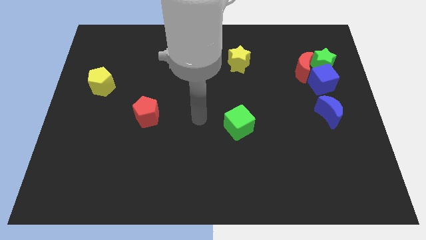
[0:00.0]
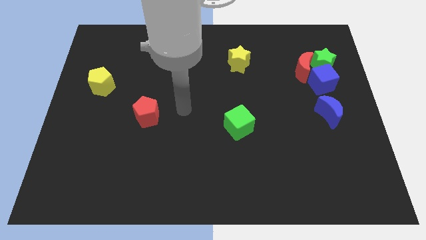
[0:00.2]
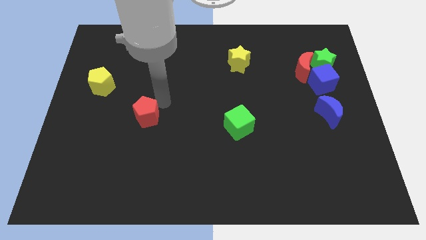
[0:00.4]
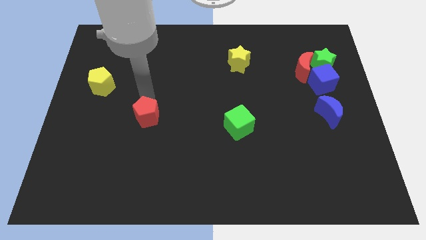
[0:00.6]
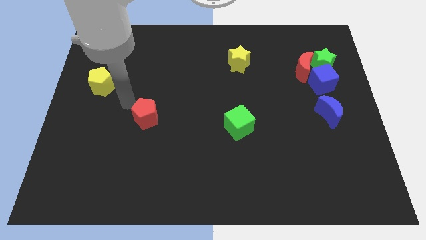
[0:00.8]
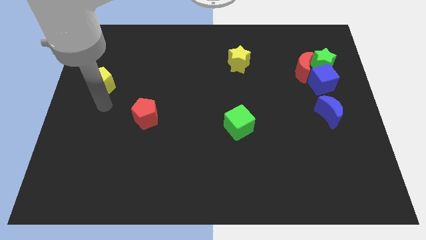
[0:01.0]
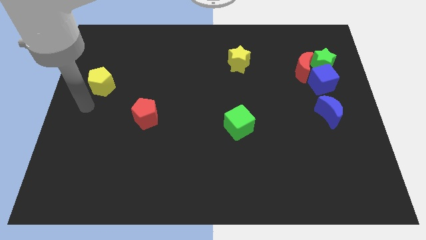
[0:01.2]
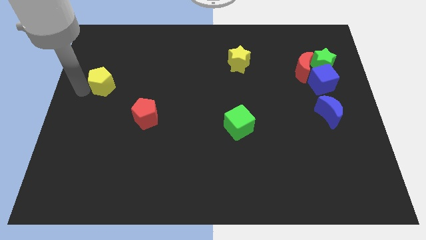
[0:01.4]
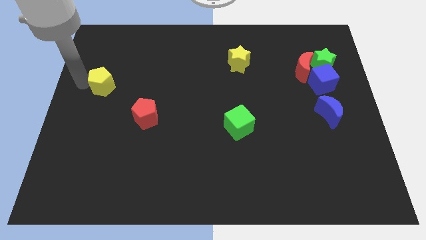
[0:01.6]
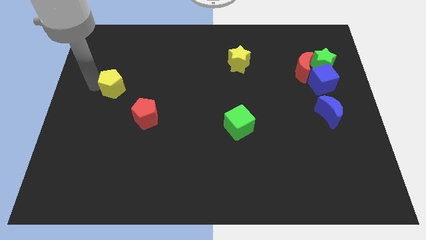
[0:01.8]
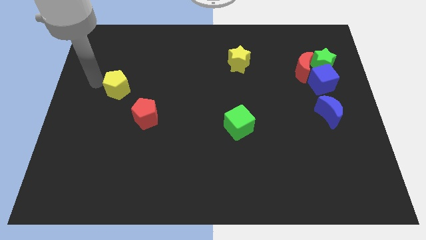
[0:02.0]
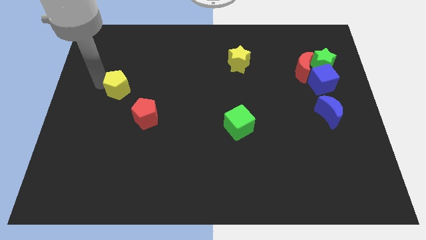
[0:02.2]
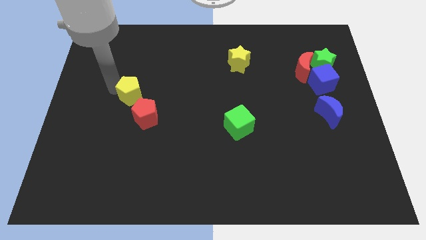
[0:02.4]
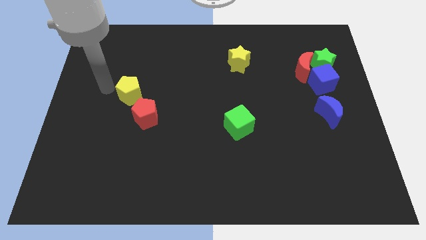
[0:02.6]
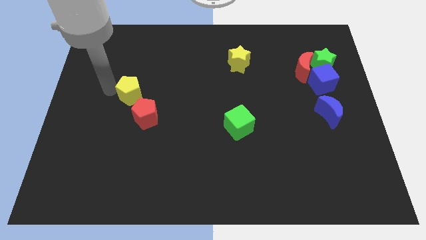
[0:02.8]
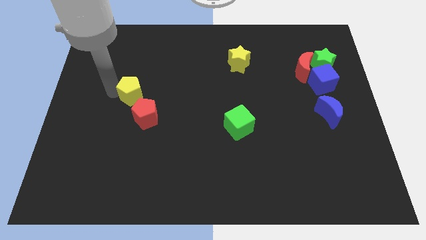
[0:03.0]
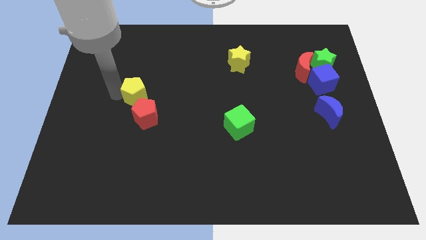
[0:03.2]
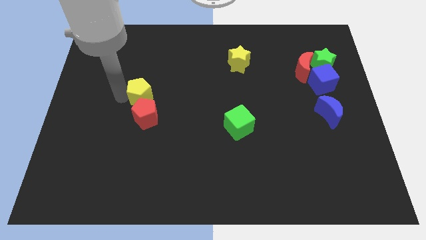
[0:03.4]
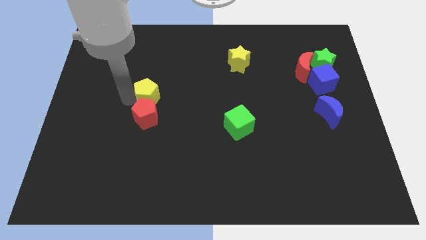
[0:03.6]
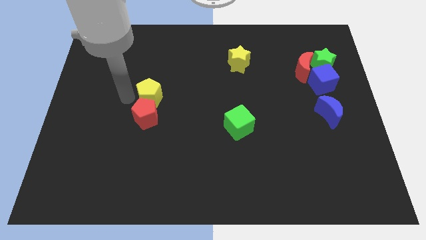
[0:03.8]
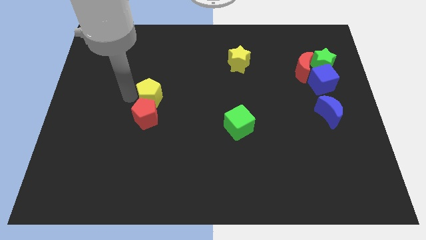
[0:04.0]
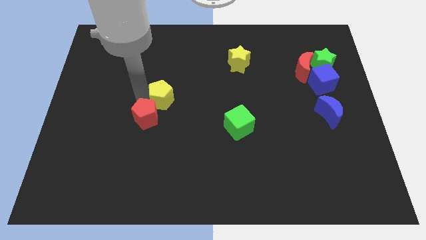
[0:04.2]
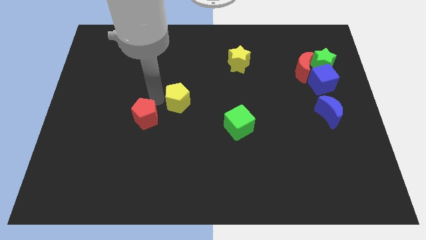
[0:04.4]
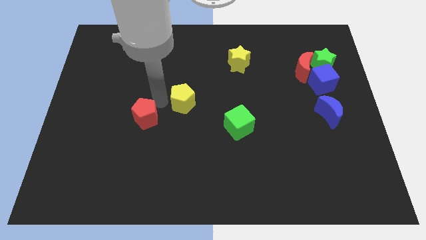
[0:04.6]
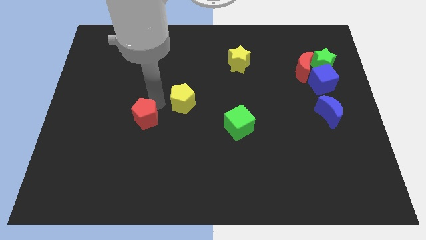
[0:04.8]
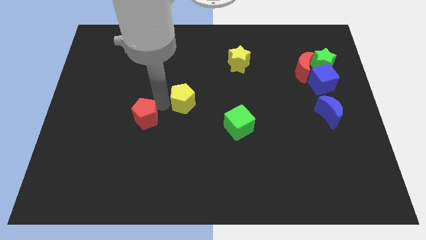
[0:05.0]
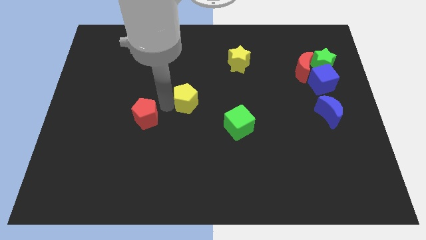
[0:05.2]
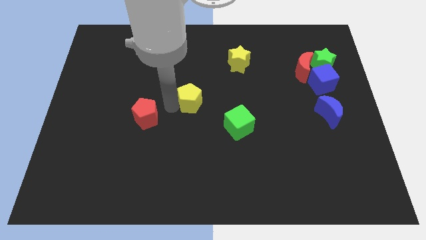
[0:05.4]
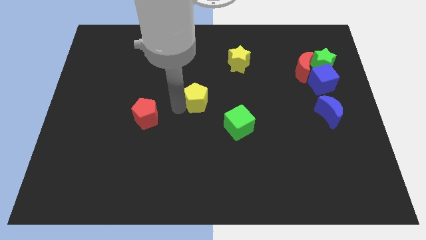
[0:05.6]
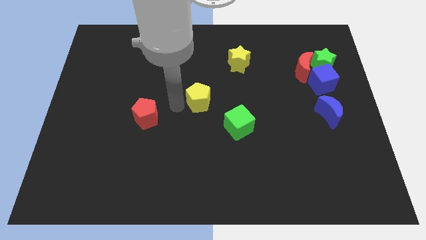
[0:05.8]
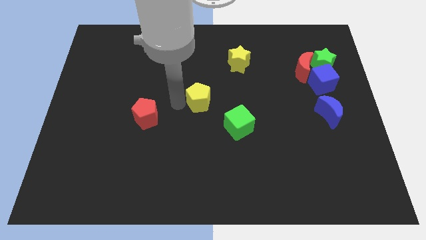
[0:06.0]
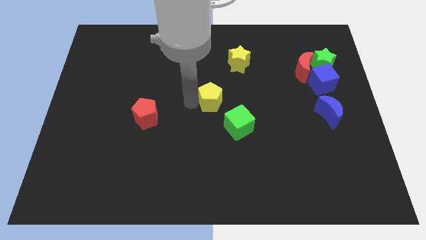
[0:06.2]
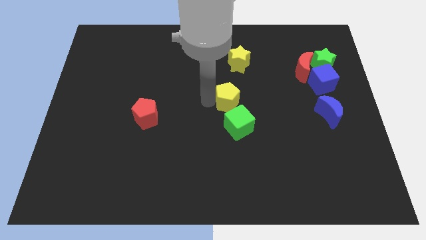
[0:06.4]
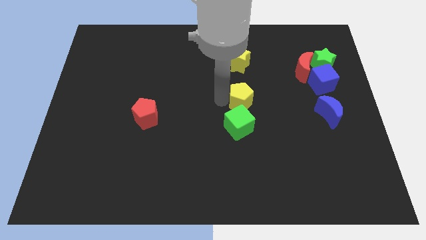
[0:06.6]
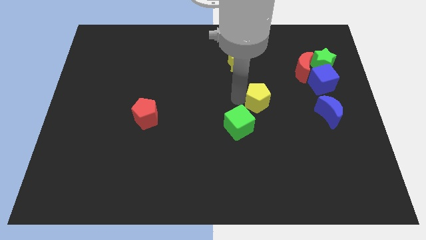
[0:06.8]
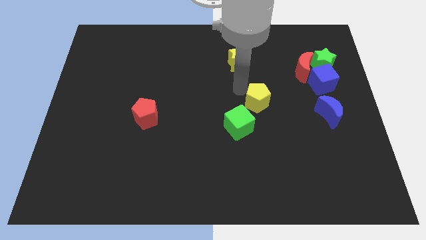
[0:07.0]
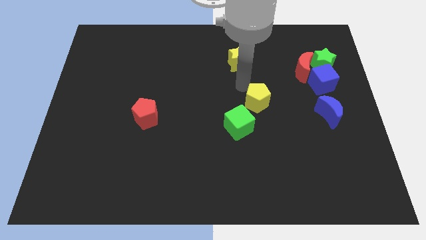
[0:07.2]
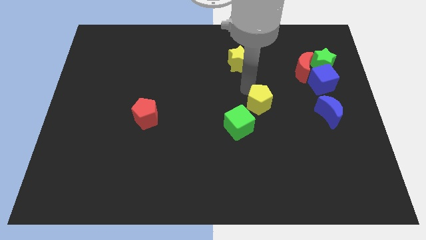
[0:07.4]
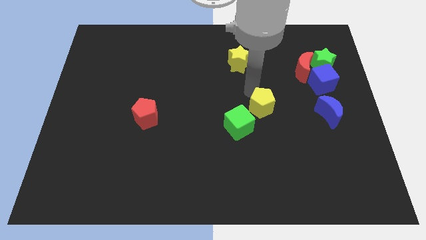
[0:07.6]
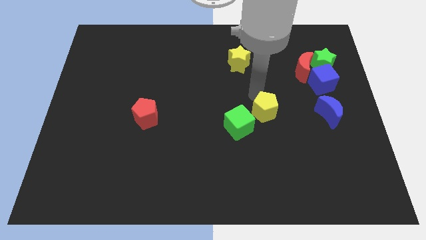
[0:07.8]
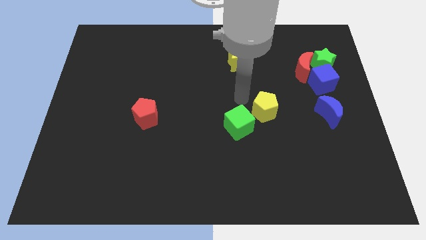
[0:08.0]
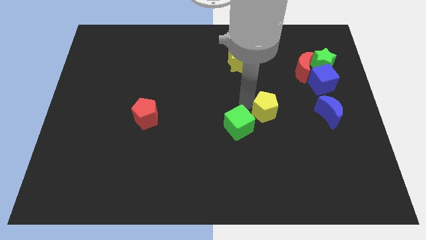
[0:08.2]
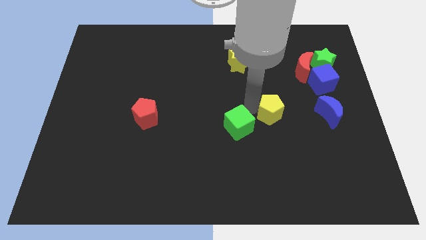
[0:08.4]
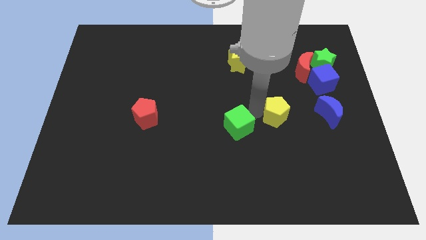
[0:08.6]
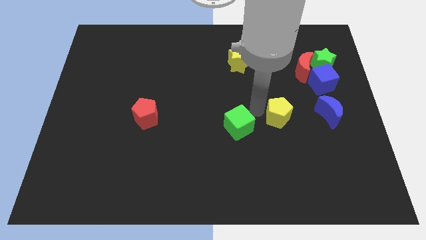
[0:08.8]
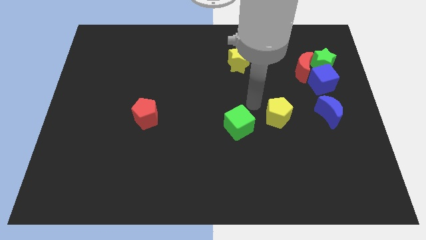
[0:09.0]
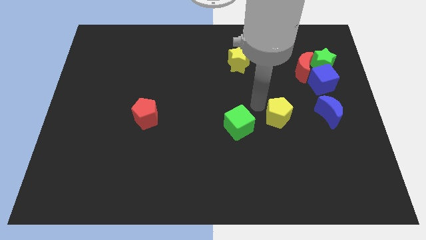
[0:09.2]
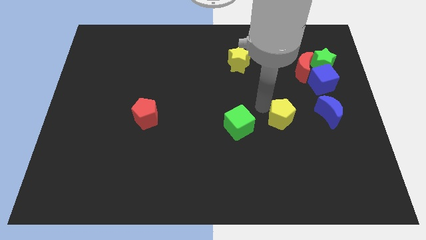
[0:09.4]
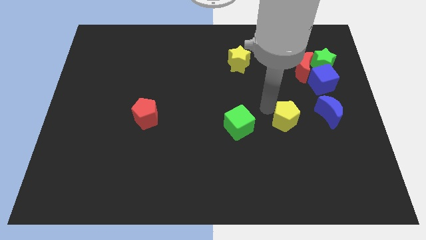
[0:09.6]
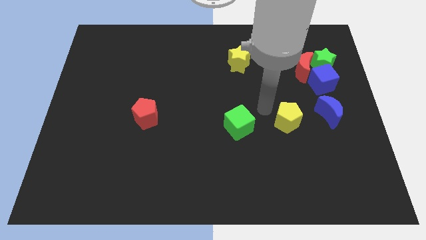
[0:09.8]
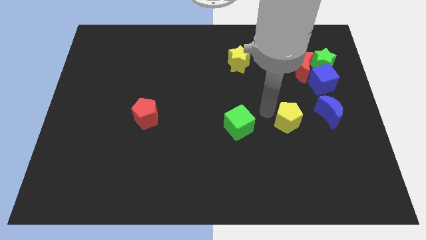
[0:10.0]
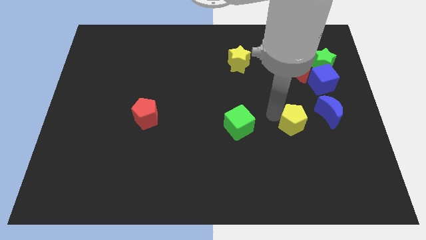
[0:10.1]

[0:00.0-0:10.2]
push the yellow pentagon to the bottom left side of the blue moon

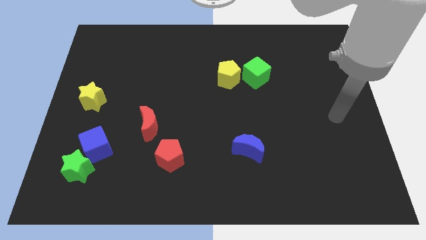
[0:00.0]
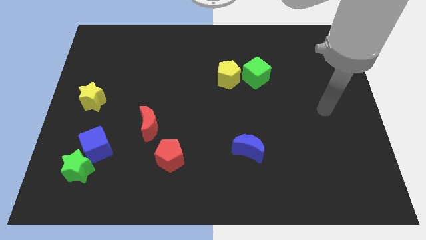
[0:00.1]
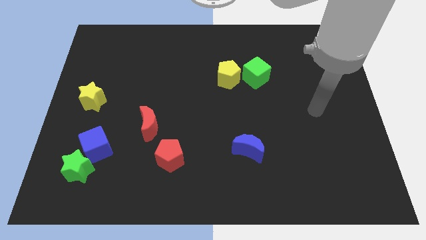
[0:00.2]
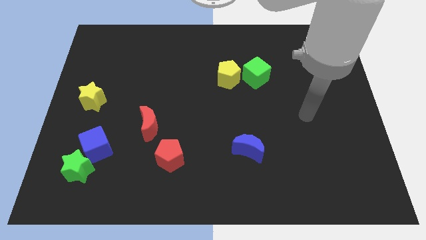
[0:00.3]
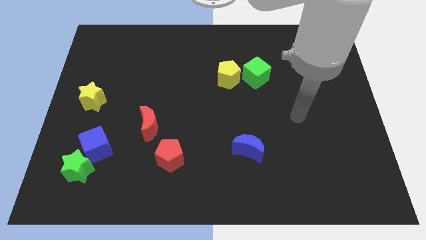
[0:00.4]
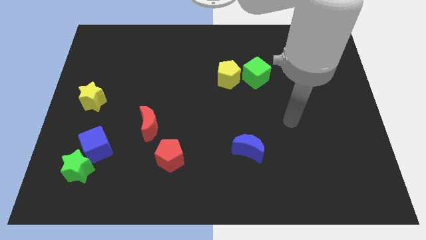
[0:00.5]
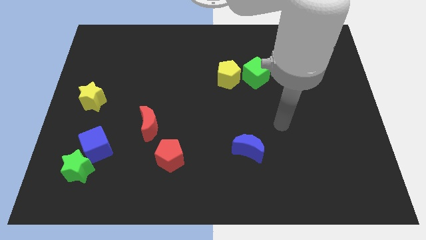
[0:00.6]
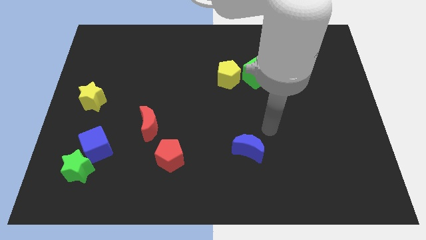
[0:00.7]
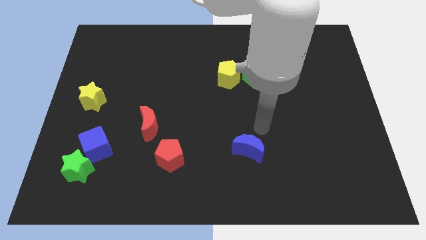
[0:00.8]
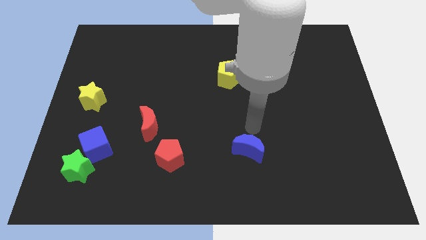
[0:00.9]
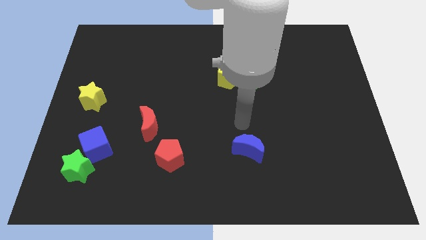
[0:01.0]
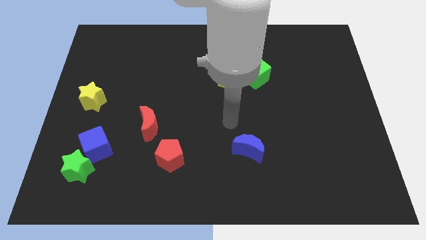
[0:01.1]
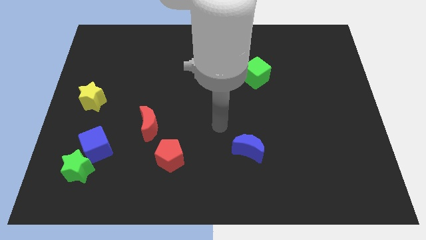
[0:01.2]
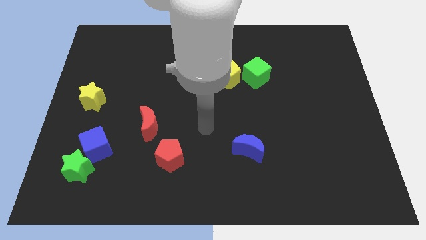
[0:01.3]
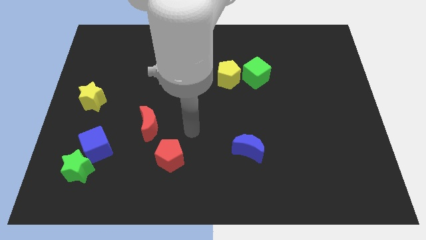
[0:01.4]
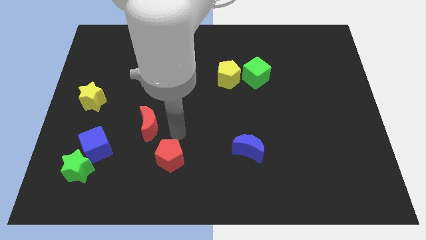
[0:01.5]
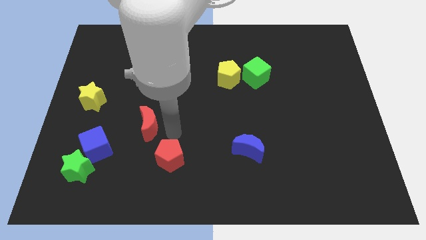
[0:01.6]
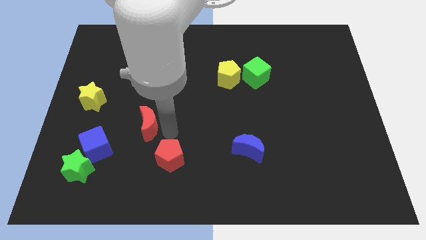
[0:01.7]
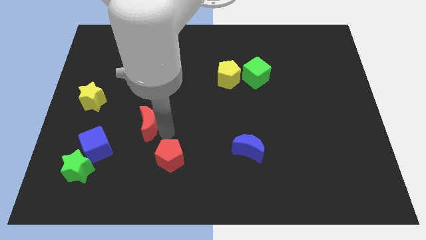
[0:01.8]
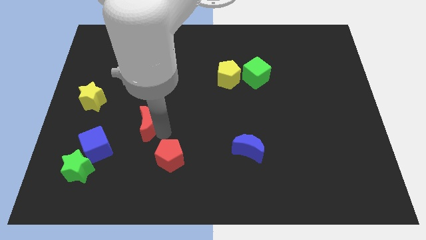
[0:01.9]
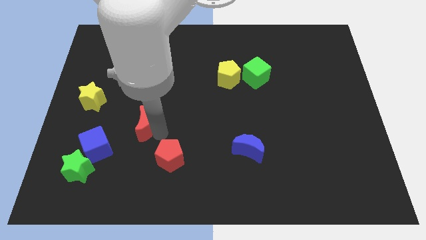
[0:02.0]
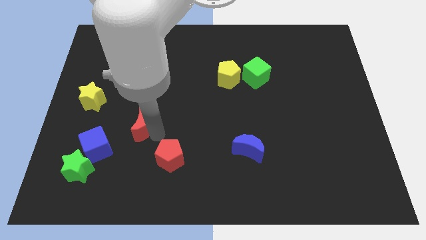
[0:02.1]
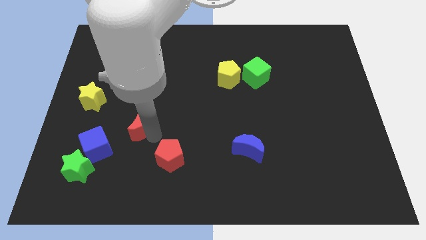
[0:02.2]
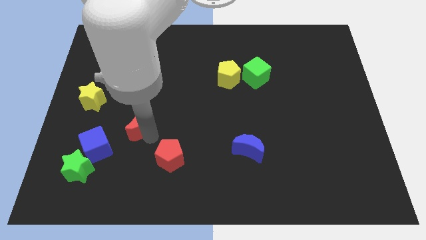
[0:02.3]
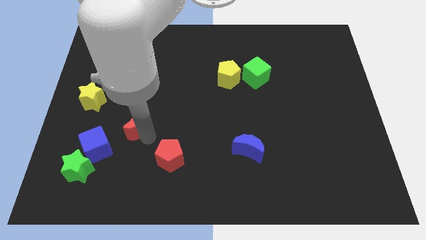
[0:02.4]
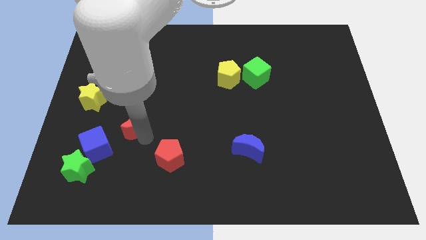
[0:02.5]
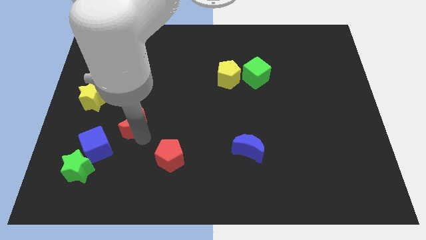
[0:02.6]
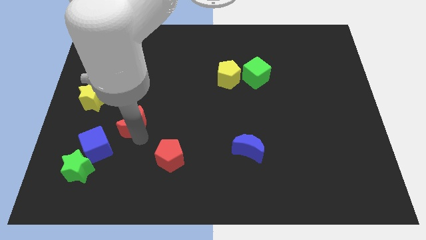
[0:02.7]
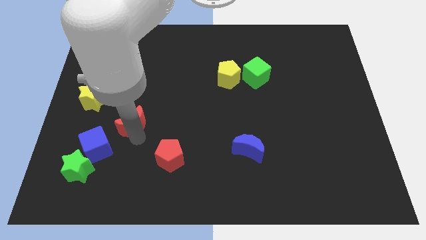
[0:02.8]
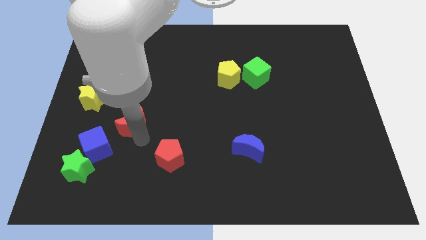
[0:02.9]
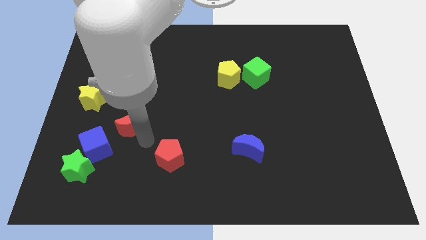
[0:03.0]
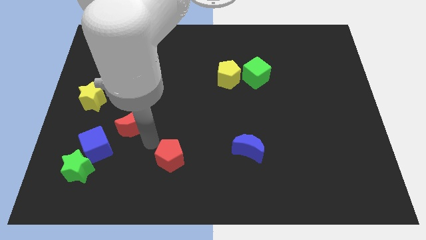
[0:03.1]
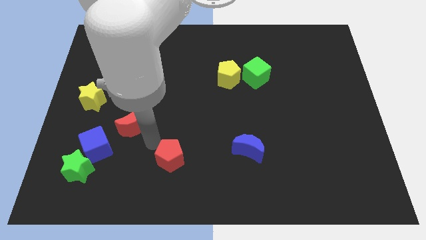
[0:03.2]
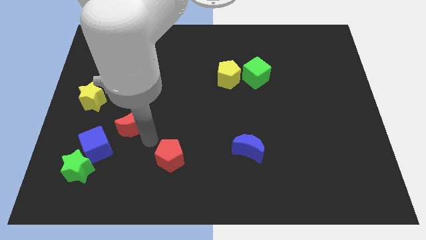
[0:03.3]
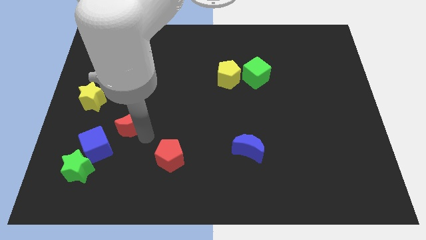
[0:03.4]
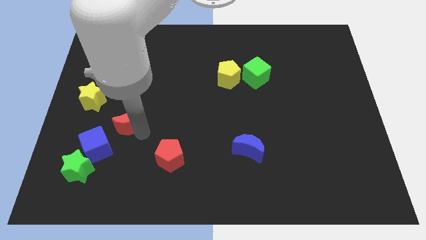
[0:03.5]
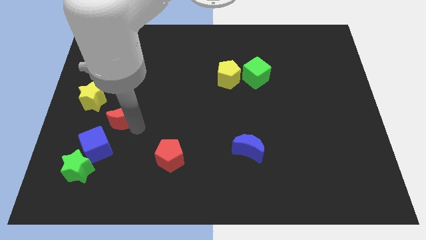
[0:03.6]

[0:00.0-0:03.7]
move the red moon above the blue cube
